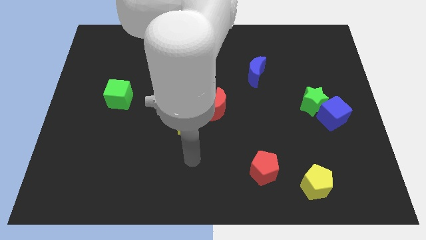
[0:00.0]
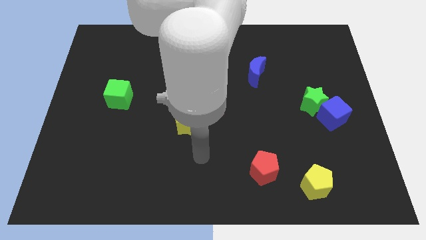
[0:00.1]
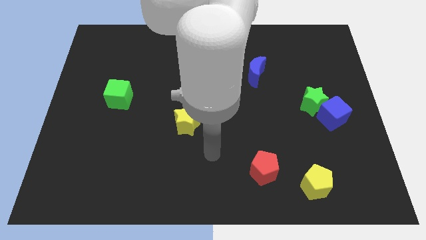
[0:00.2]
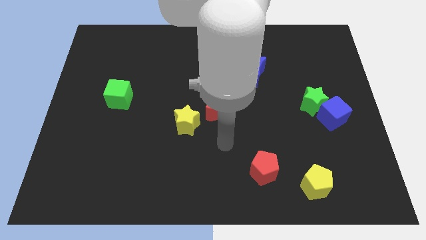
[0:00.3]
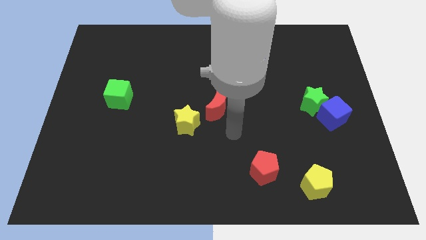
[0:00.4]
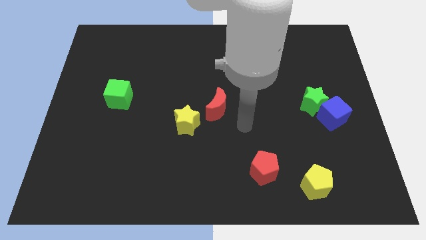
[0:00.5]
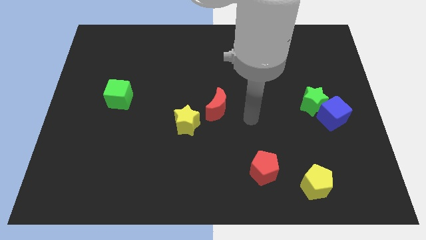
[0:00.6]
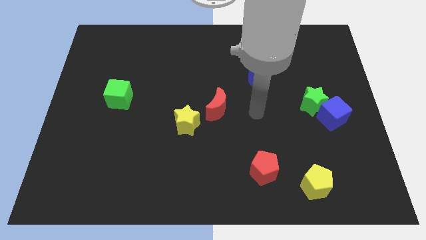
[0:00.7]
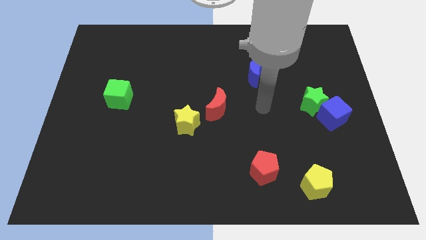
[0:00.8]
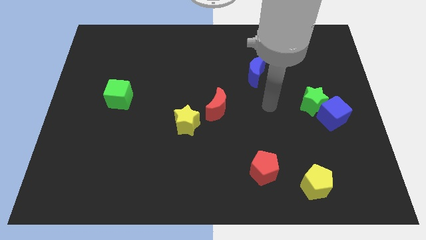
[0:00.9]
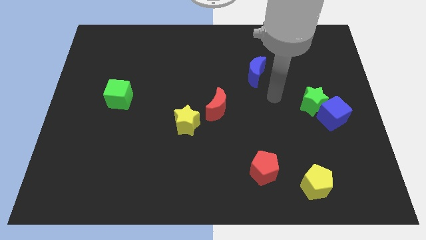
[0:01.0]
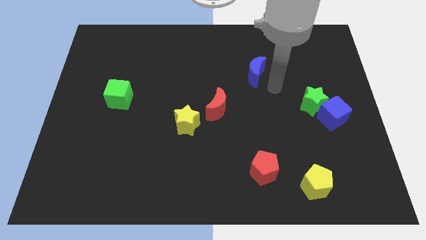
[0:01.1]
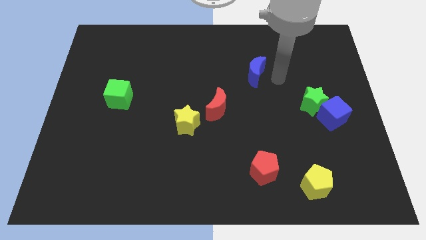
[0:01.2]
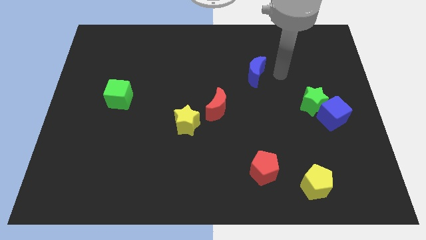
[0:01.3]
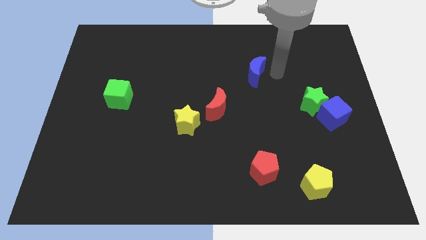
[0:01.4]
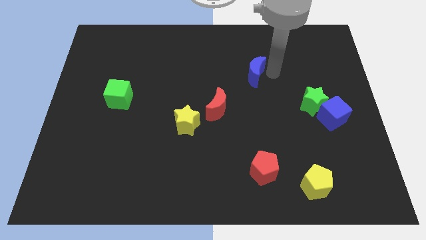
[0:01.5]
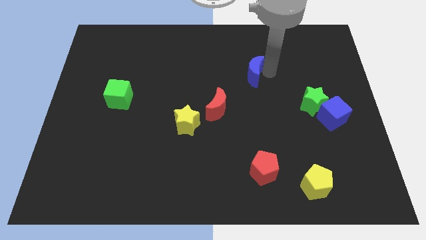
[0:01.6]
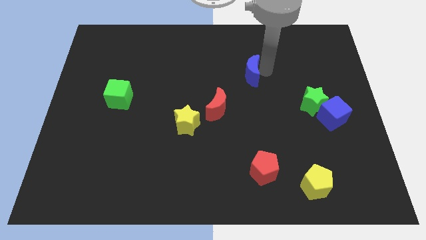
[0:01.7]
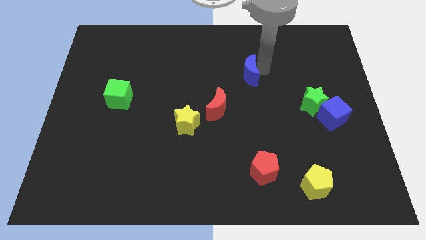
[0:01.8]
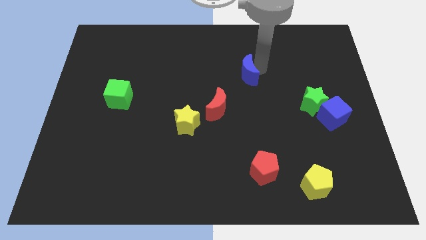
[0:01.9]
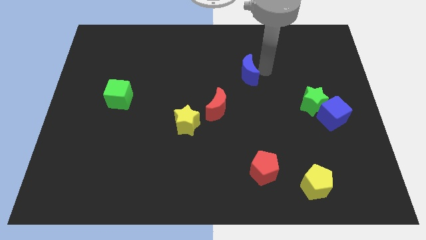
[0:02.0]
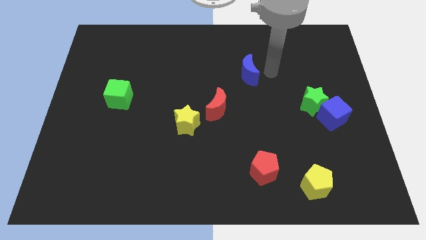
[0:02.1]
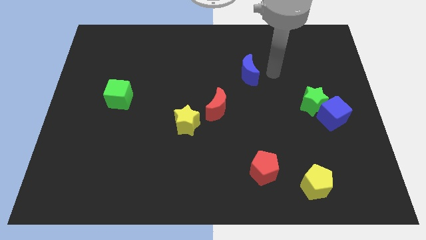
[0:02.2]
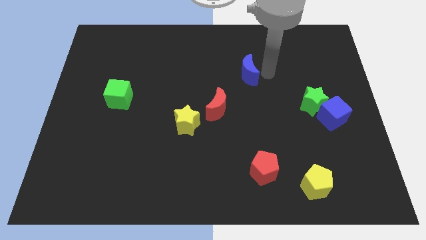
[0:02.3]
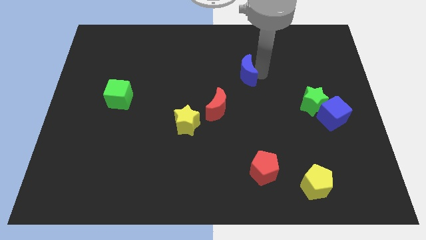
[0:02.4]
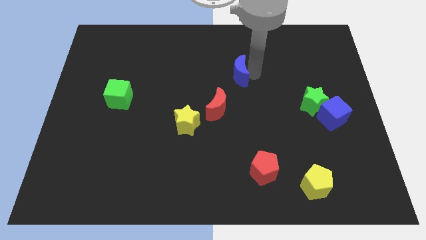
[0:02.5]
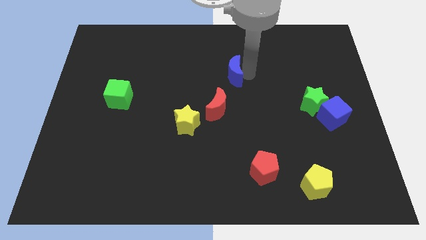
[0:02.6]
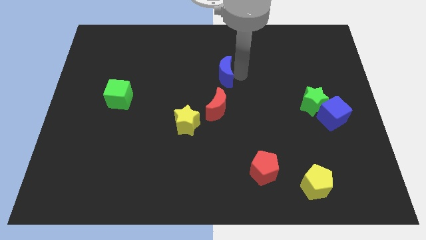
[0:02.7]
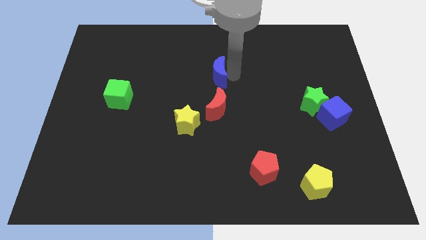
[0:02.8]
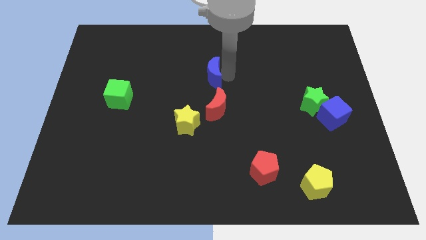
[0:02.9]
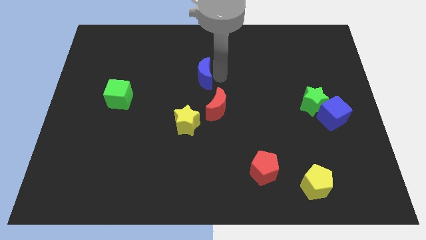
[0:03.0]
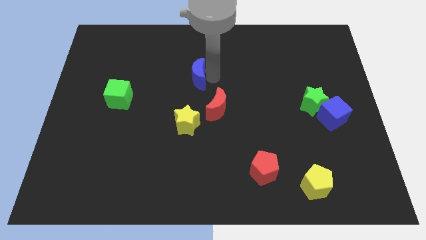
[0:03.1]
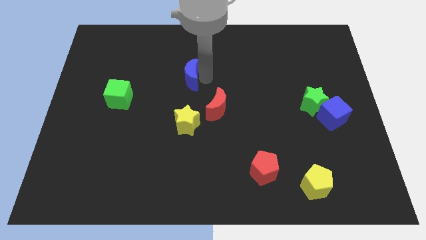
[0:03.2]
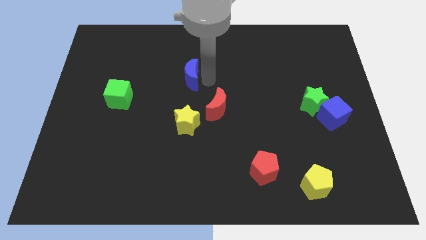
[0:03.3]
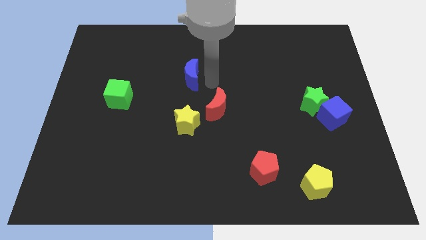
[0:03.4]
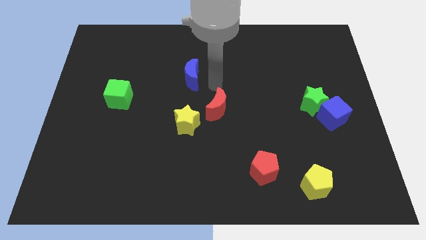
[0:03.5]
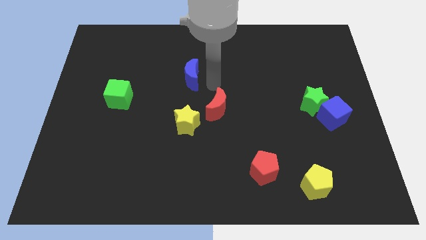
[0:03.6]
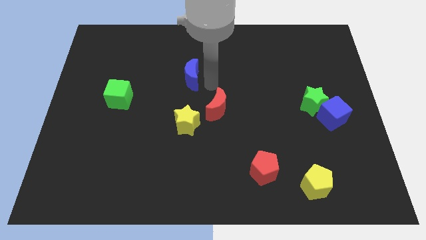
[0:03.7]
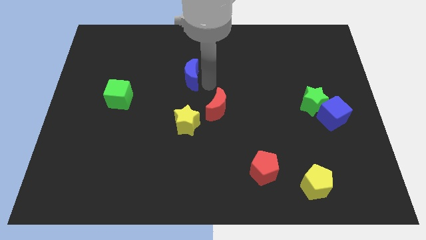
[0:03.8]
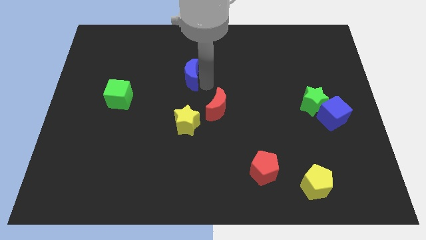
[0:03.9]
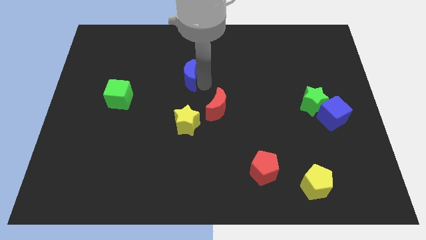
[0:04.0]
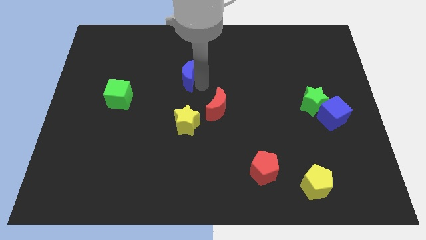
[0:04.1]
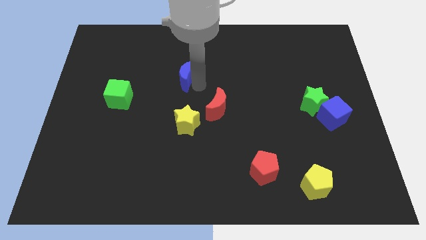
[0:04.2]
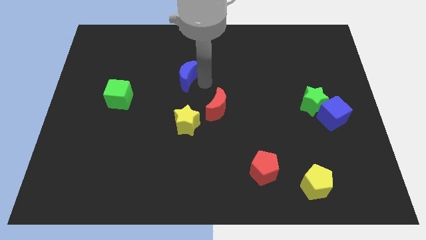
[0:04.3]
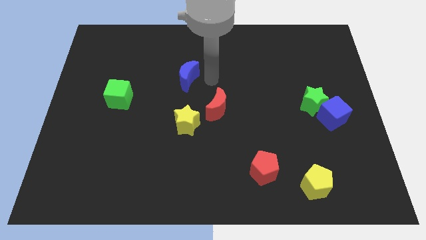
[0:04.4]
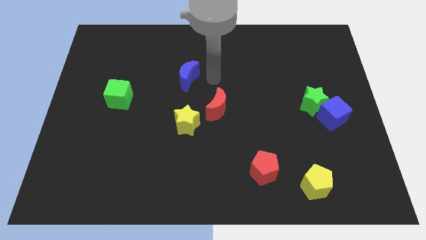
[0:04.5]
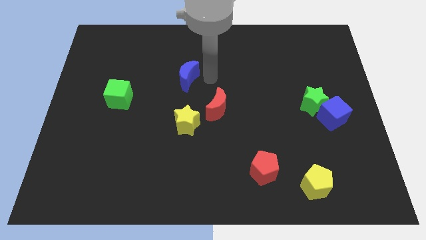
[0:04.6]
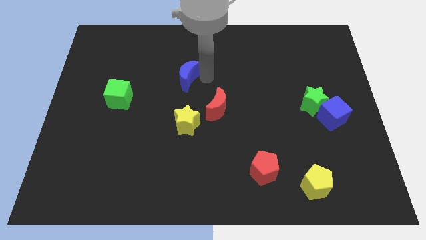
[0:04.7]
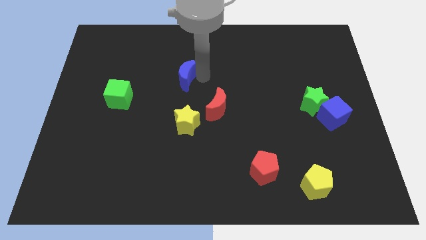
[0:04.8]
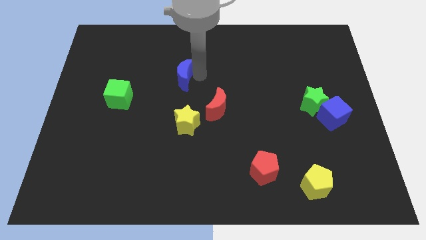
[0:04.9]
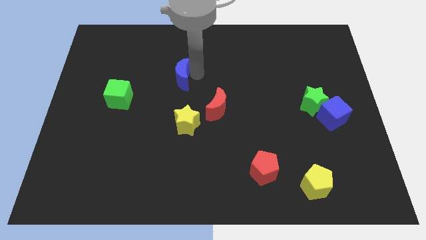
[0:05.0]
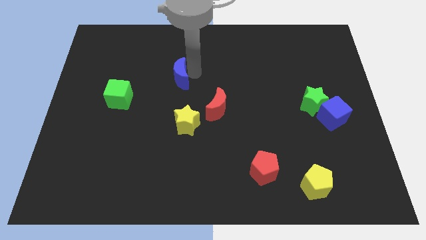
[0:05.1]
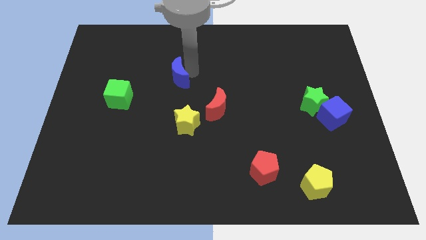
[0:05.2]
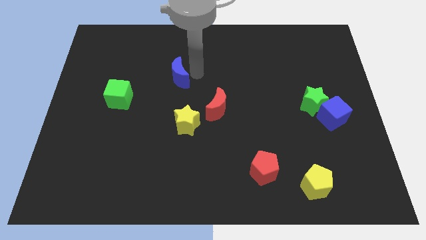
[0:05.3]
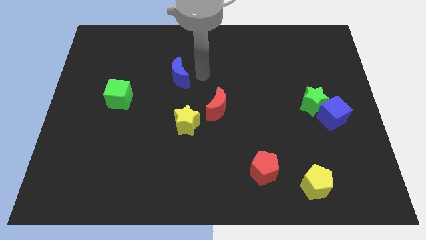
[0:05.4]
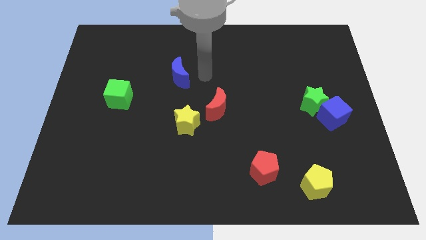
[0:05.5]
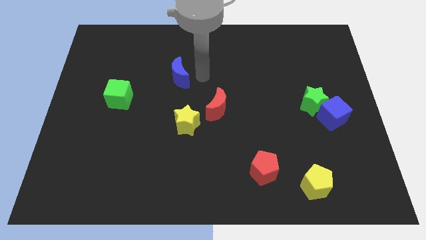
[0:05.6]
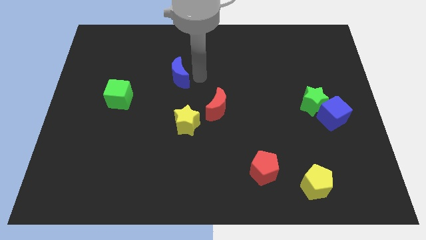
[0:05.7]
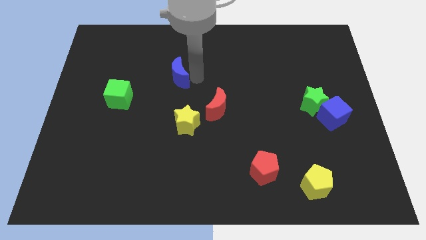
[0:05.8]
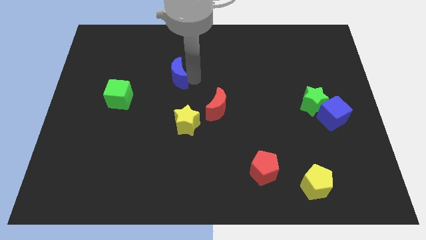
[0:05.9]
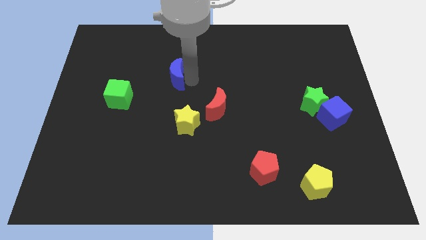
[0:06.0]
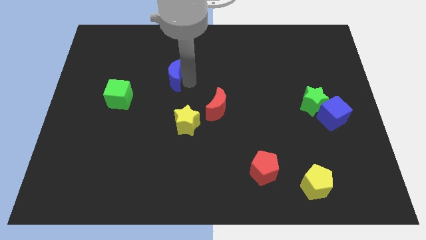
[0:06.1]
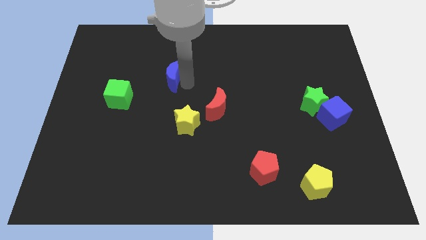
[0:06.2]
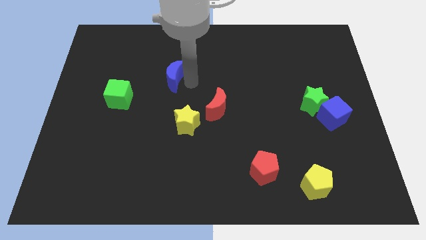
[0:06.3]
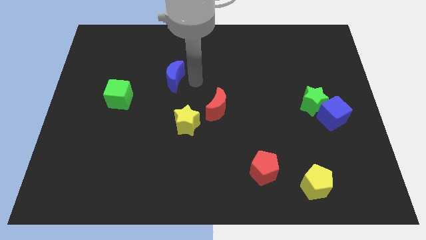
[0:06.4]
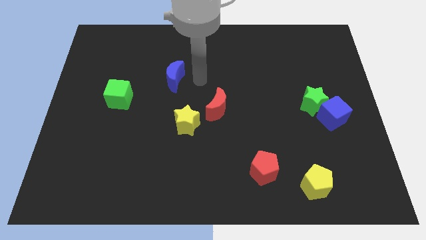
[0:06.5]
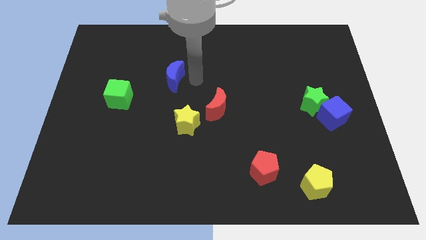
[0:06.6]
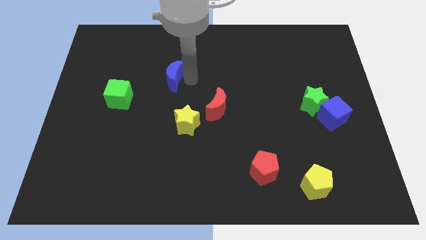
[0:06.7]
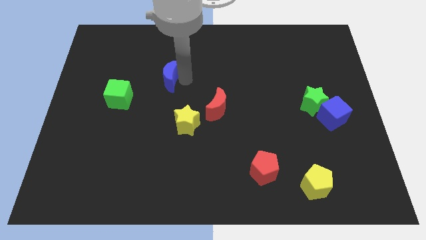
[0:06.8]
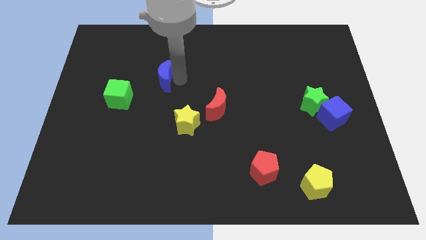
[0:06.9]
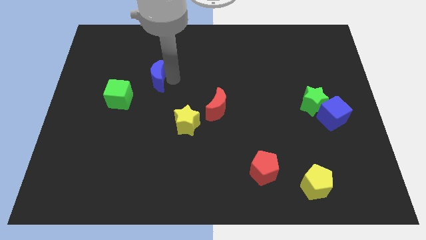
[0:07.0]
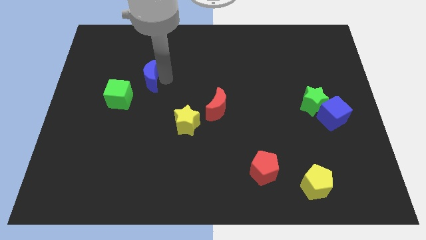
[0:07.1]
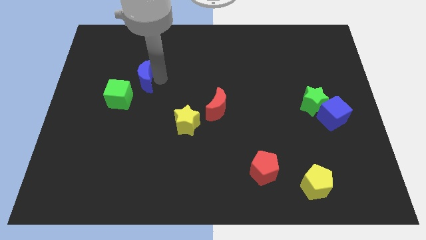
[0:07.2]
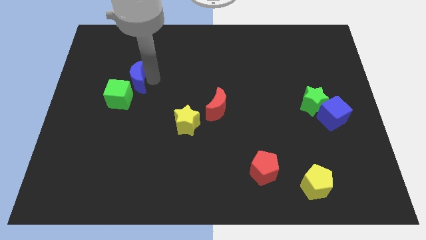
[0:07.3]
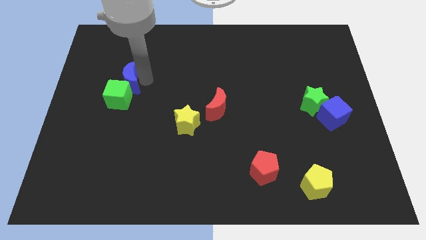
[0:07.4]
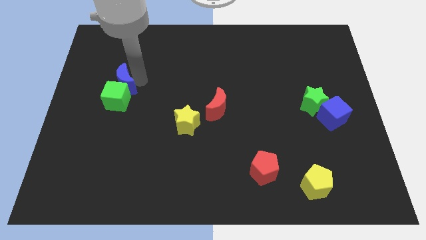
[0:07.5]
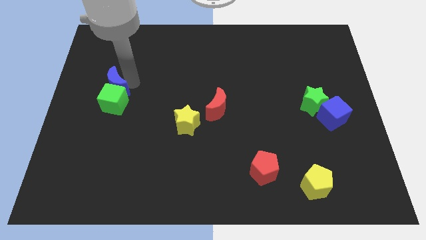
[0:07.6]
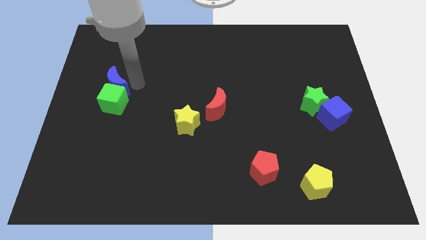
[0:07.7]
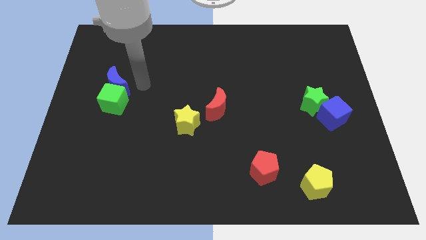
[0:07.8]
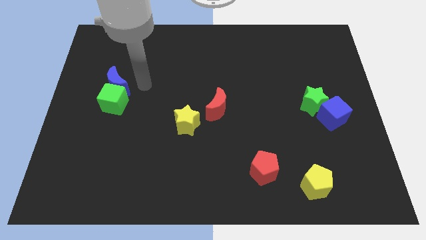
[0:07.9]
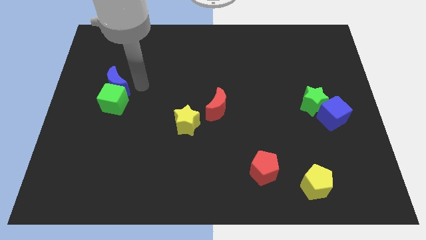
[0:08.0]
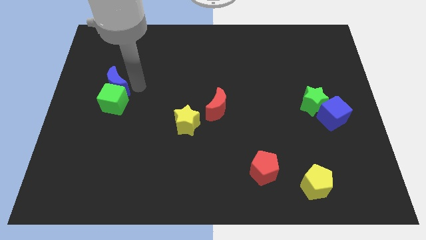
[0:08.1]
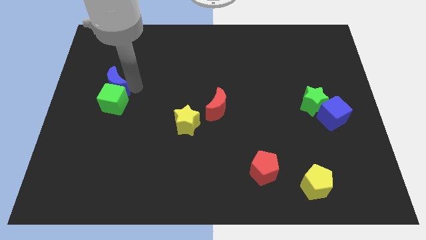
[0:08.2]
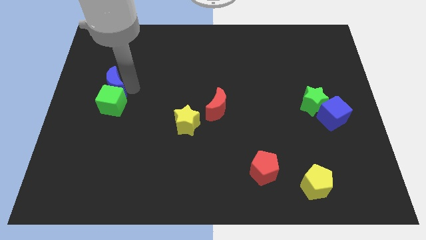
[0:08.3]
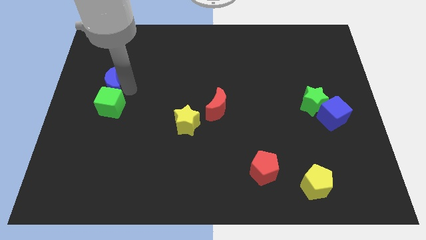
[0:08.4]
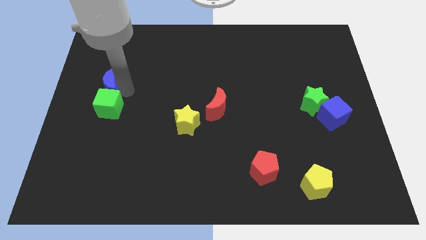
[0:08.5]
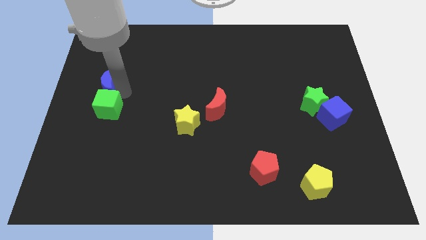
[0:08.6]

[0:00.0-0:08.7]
push the blue moon to the left side of the board
